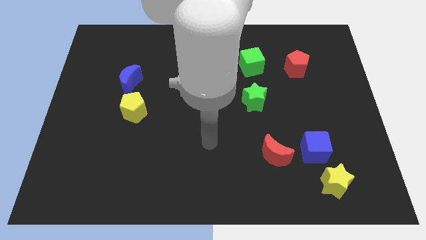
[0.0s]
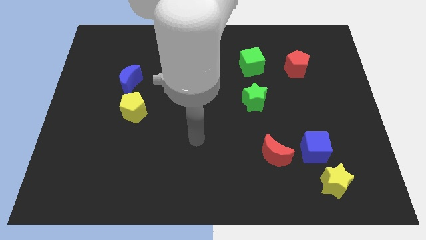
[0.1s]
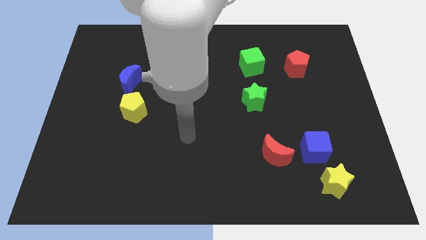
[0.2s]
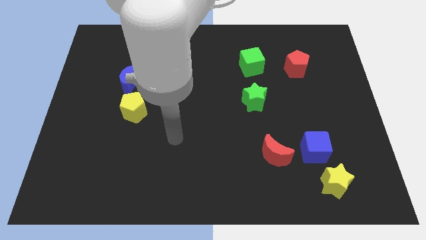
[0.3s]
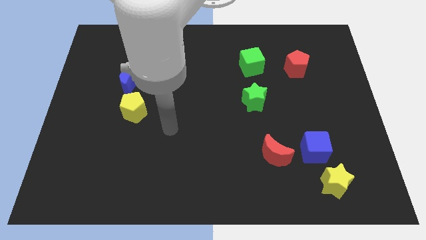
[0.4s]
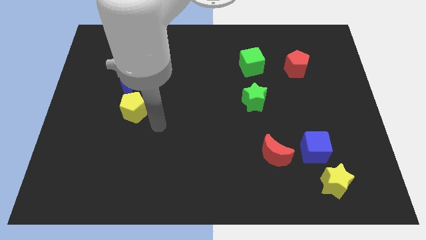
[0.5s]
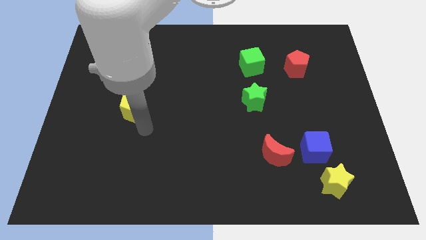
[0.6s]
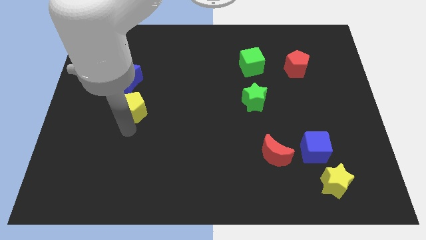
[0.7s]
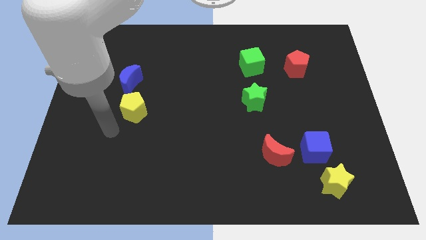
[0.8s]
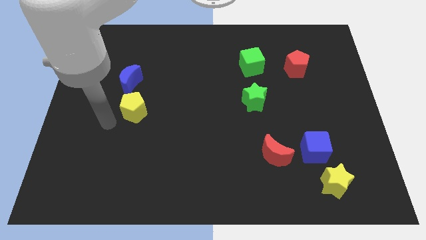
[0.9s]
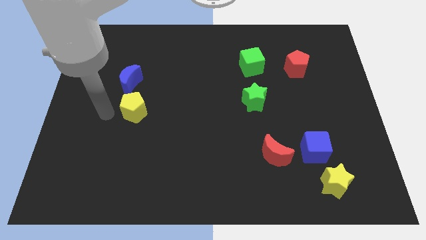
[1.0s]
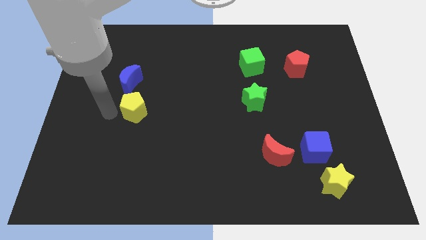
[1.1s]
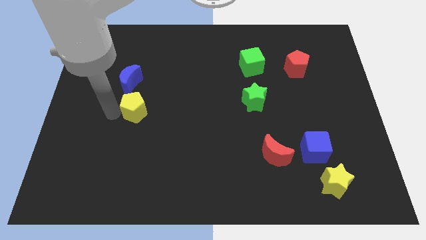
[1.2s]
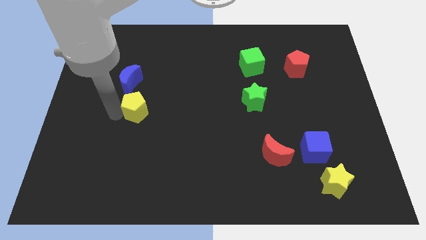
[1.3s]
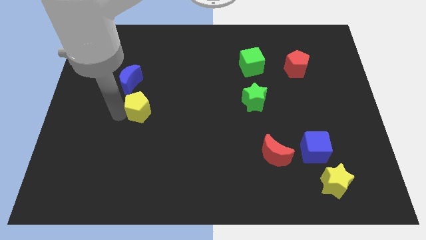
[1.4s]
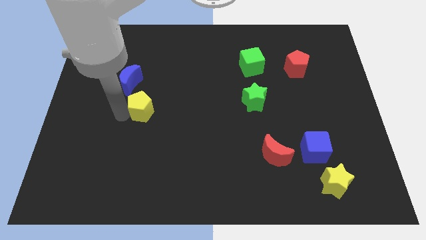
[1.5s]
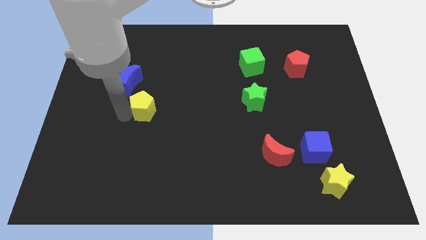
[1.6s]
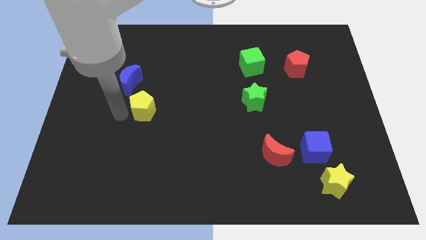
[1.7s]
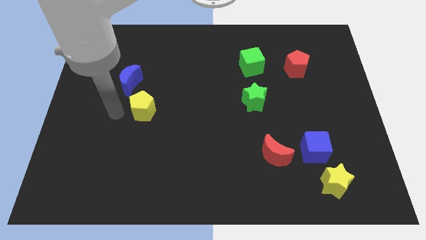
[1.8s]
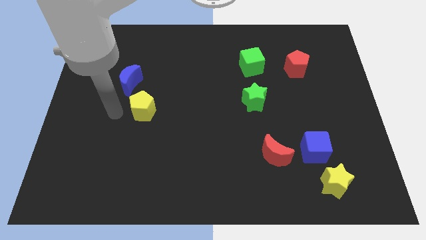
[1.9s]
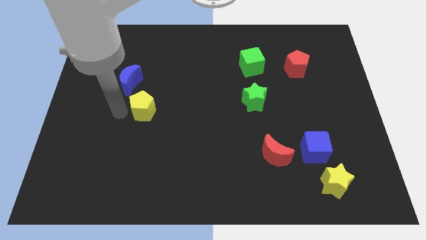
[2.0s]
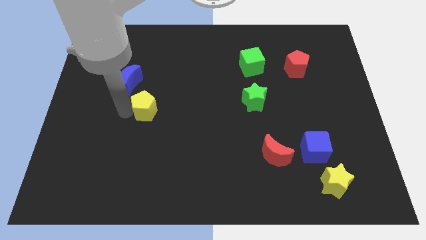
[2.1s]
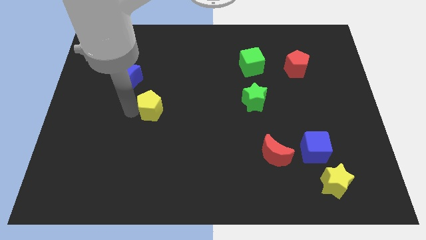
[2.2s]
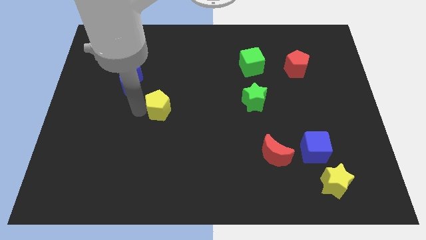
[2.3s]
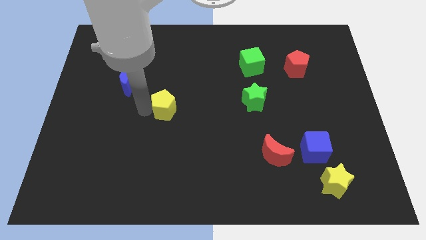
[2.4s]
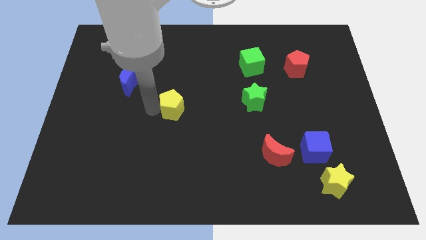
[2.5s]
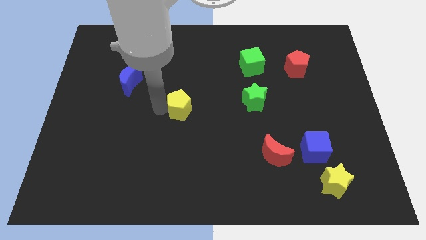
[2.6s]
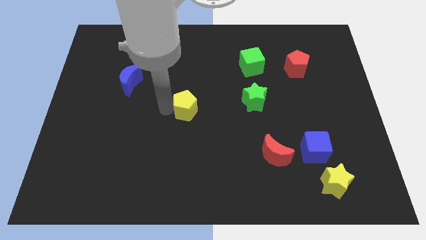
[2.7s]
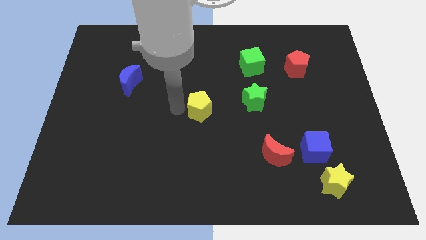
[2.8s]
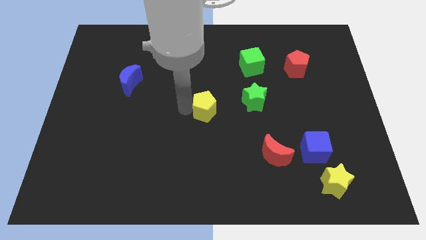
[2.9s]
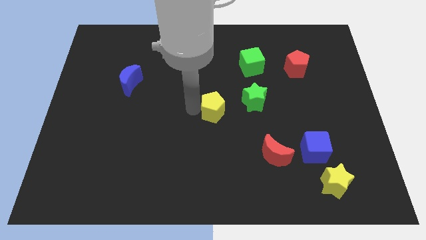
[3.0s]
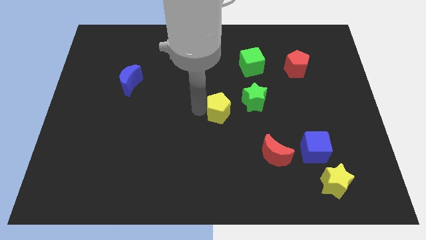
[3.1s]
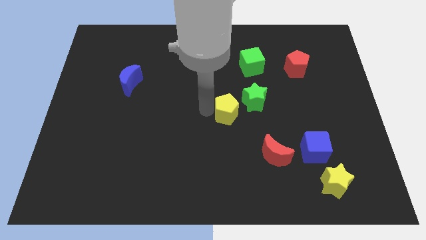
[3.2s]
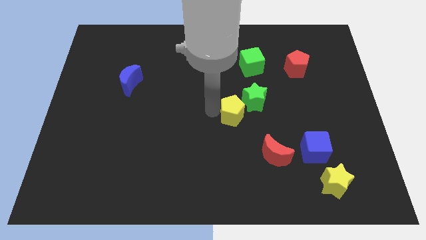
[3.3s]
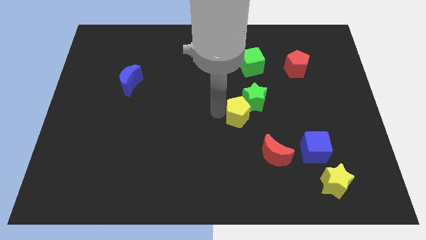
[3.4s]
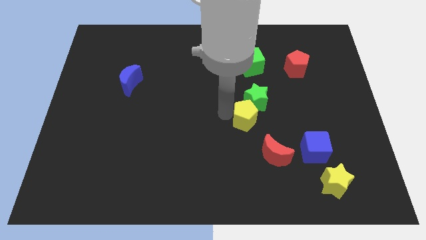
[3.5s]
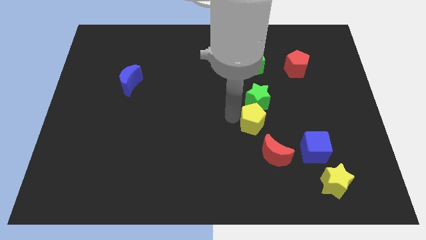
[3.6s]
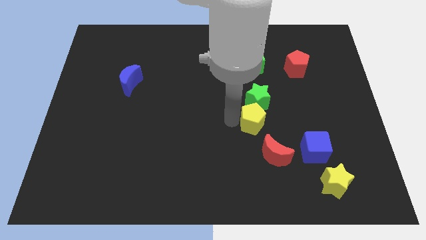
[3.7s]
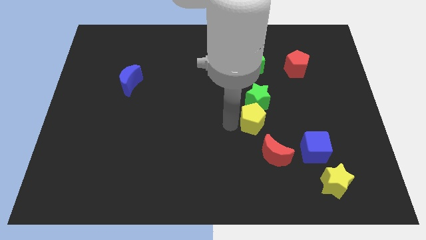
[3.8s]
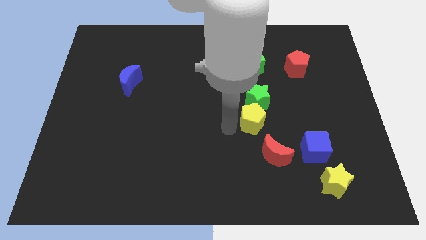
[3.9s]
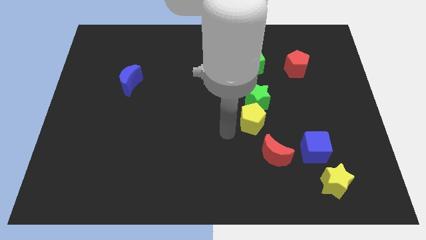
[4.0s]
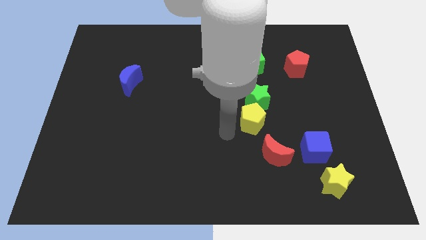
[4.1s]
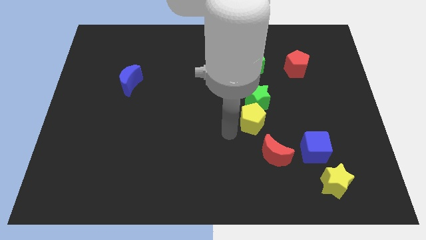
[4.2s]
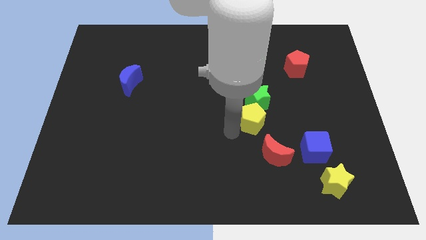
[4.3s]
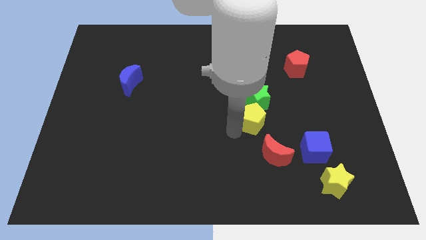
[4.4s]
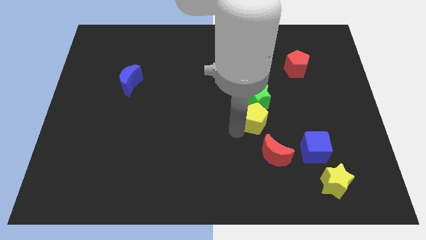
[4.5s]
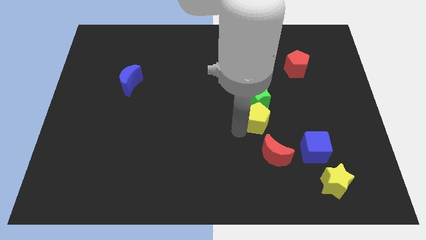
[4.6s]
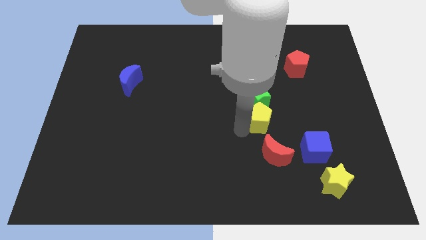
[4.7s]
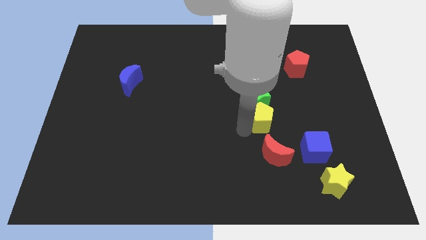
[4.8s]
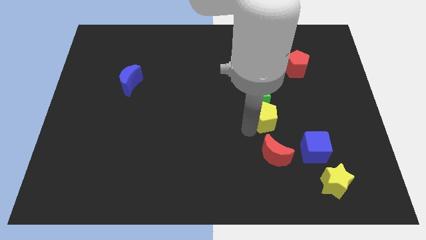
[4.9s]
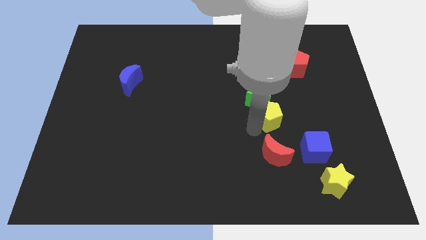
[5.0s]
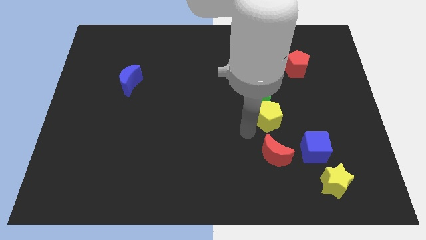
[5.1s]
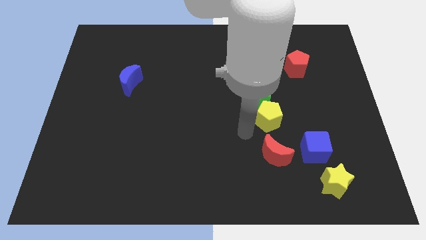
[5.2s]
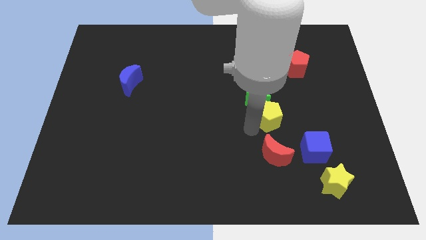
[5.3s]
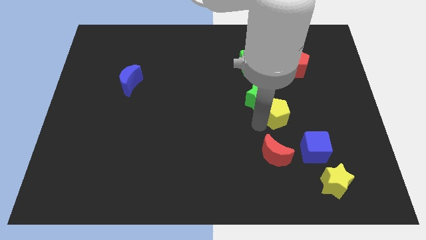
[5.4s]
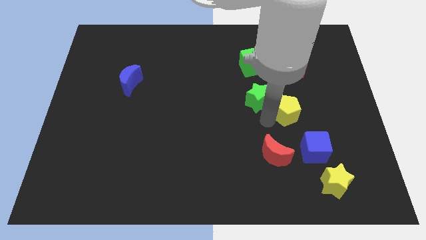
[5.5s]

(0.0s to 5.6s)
slide the yellow pentagon to the right of the green star

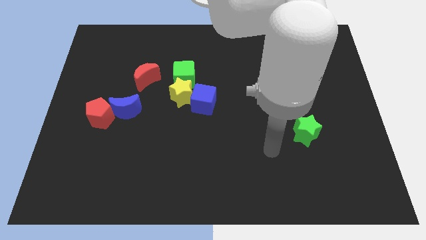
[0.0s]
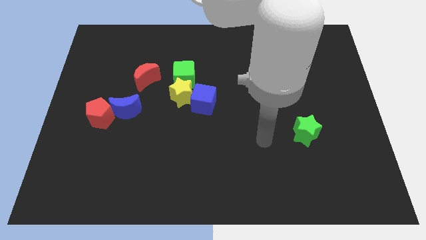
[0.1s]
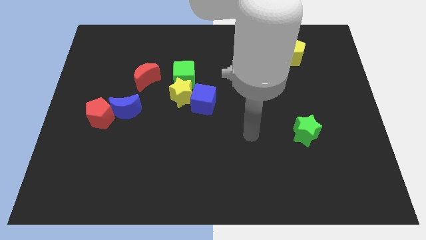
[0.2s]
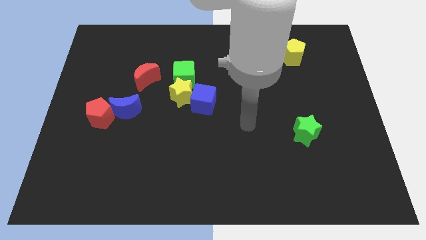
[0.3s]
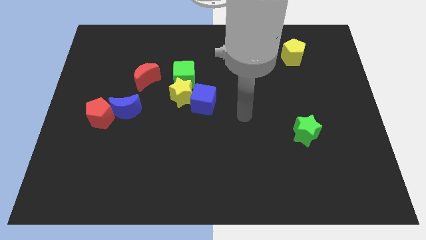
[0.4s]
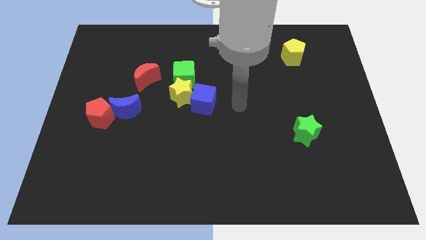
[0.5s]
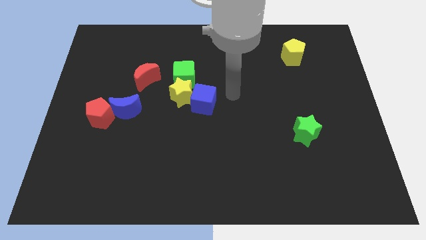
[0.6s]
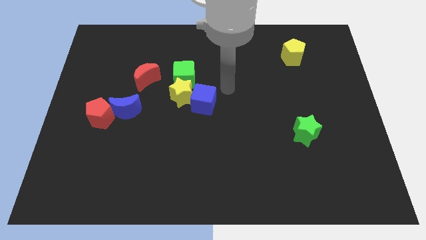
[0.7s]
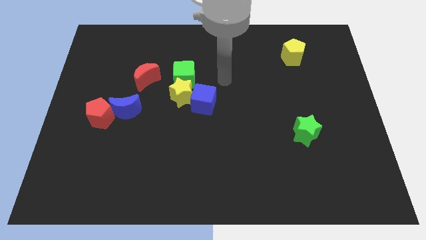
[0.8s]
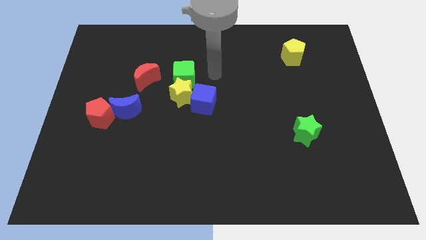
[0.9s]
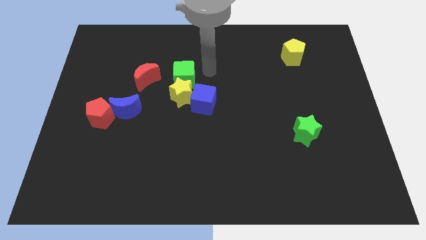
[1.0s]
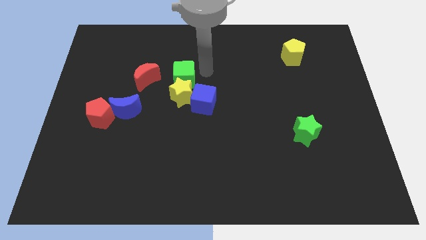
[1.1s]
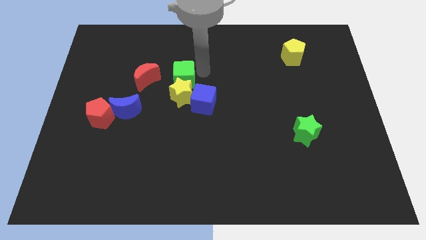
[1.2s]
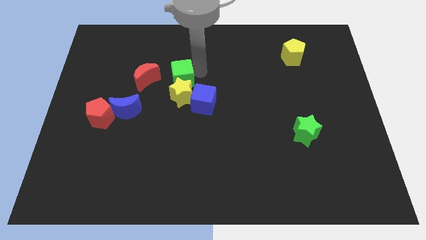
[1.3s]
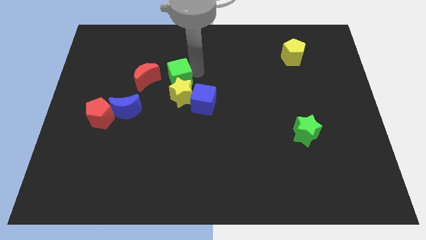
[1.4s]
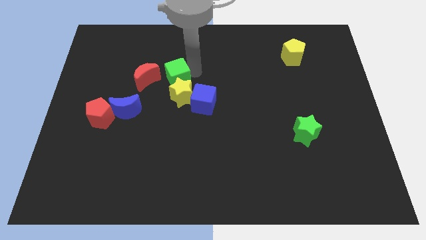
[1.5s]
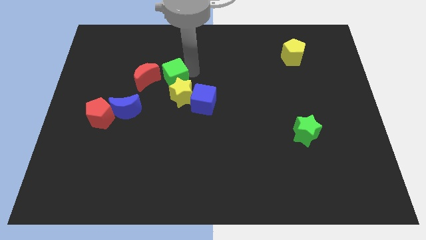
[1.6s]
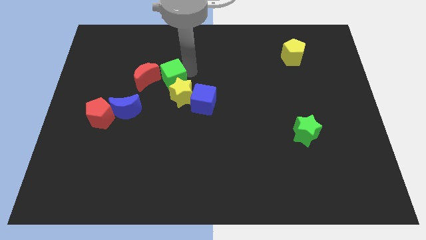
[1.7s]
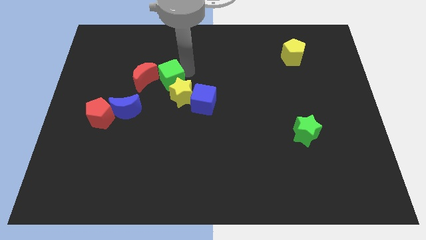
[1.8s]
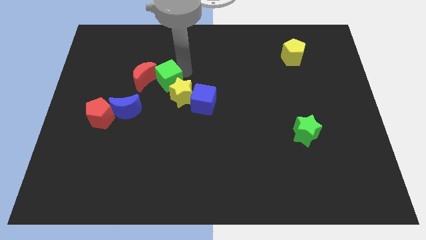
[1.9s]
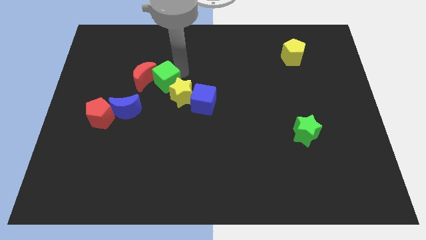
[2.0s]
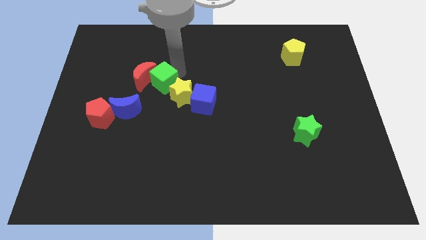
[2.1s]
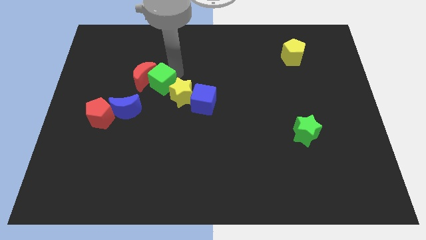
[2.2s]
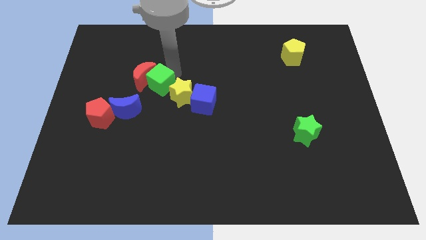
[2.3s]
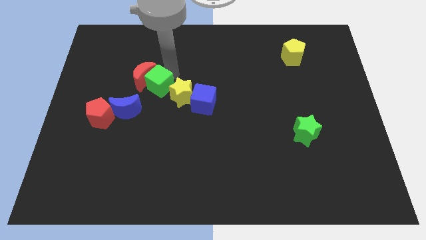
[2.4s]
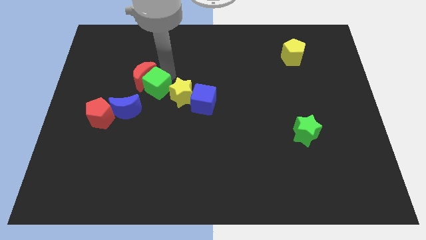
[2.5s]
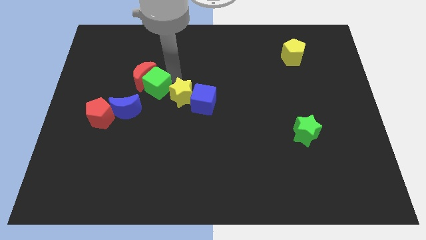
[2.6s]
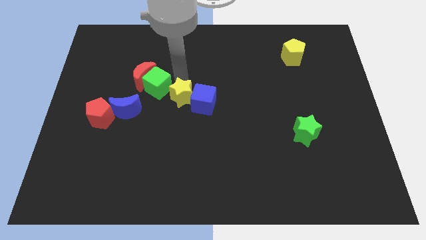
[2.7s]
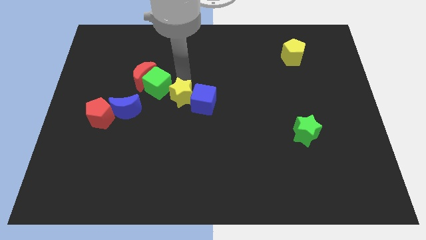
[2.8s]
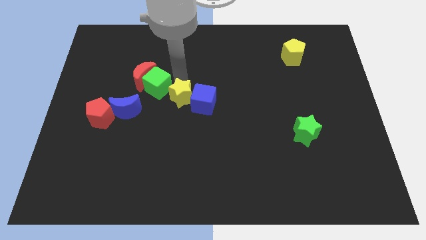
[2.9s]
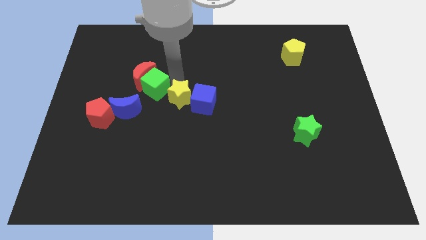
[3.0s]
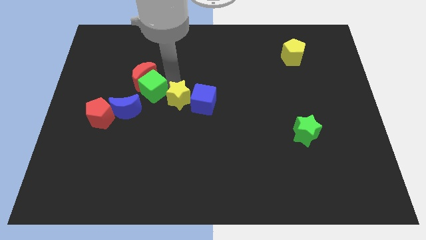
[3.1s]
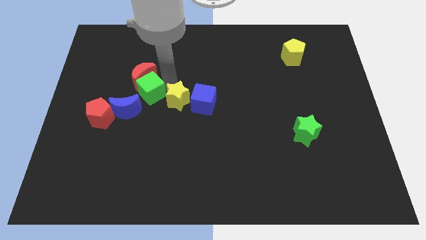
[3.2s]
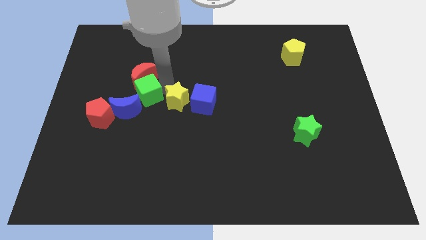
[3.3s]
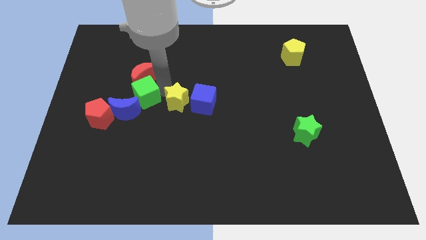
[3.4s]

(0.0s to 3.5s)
put the green cube diagonally down and to the left of the red moon
